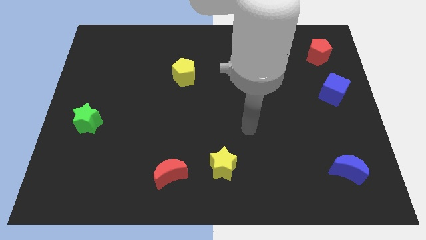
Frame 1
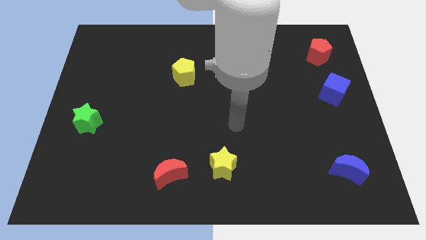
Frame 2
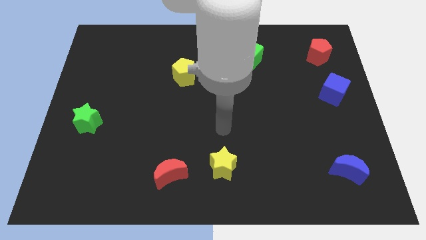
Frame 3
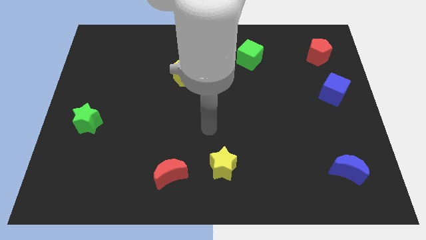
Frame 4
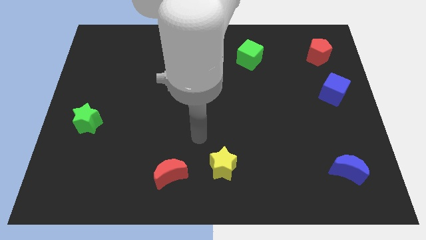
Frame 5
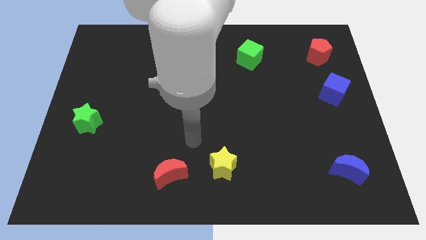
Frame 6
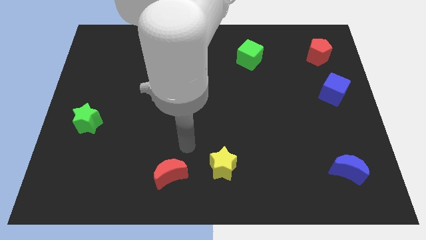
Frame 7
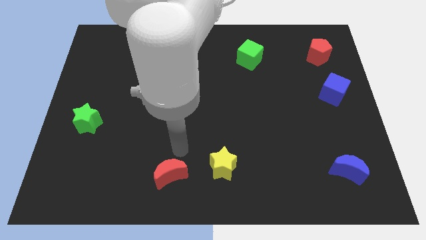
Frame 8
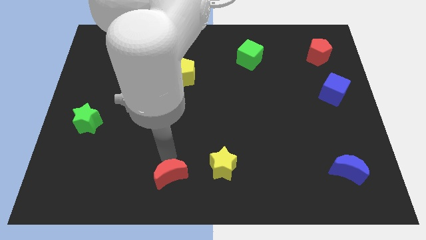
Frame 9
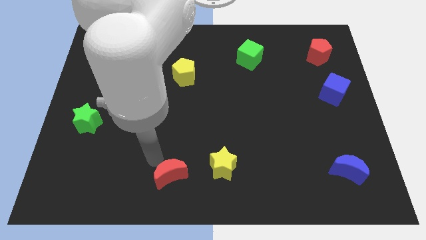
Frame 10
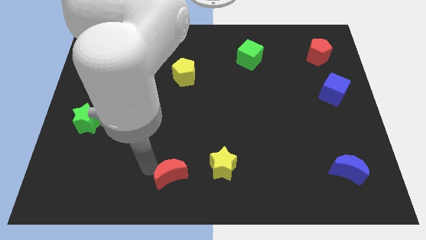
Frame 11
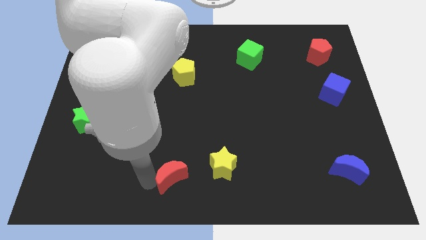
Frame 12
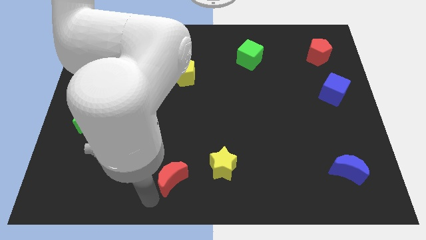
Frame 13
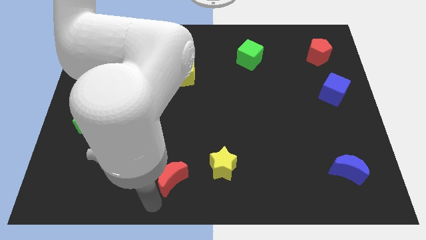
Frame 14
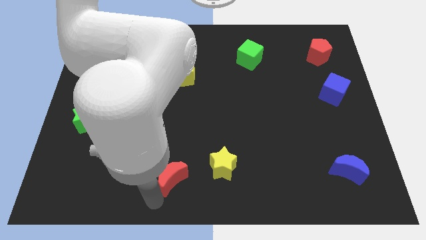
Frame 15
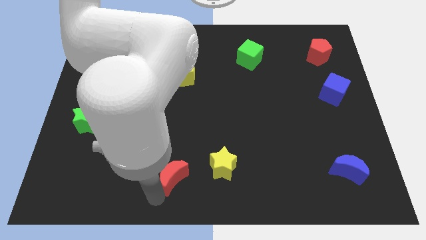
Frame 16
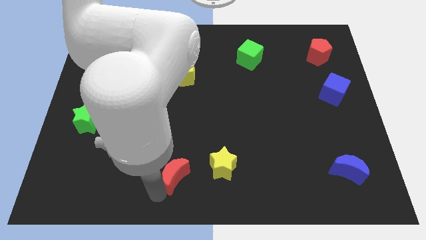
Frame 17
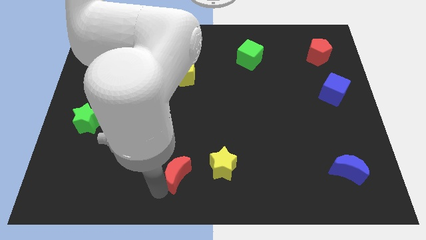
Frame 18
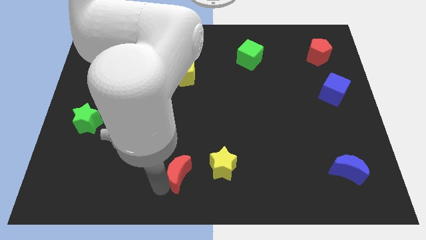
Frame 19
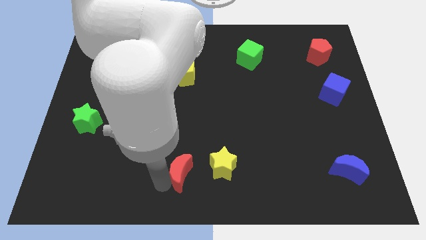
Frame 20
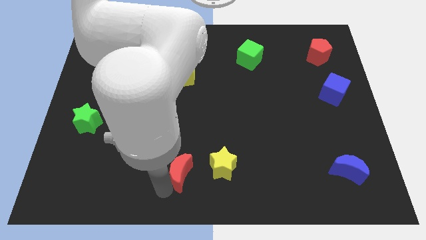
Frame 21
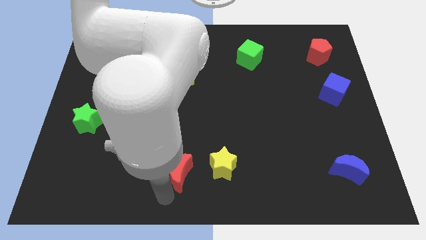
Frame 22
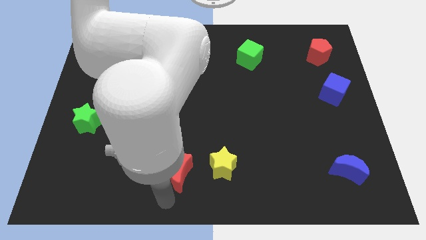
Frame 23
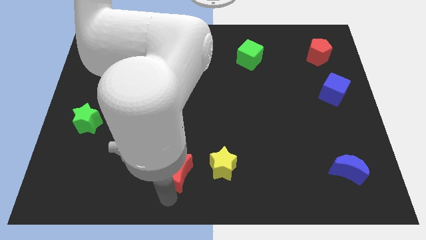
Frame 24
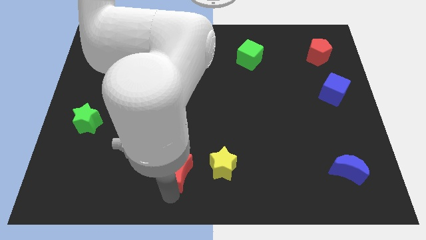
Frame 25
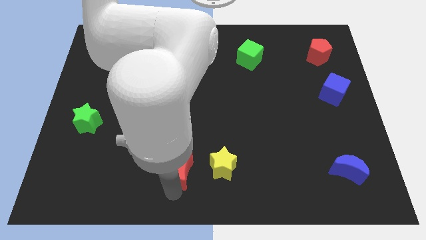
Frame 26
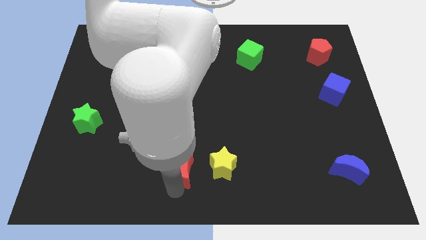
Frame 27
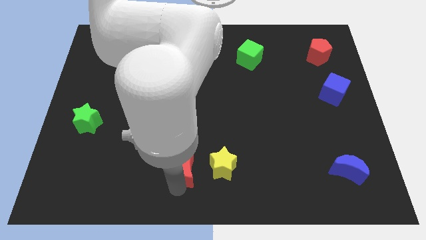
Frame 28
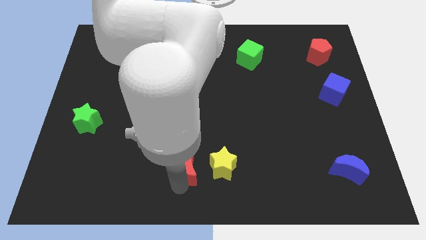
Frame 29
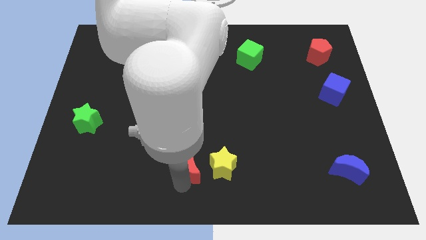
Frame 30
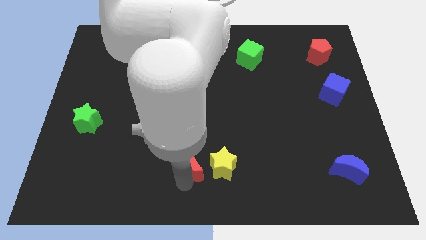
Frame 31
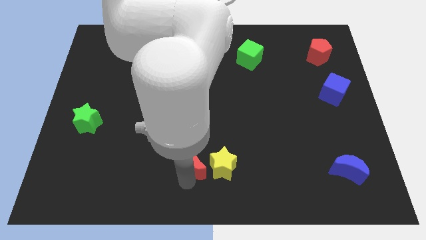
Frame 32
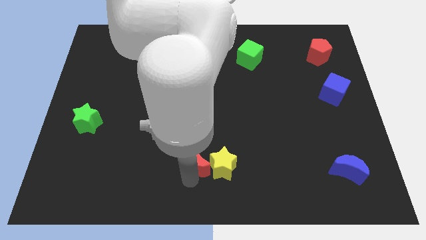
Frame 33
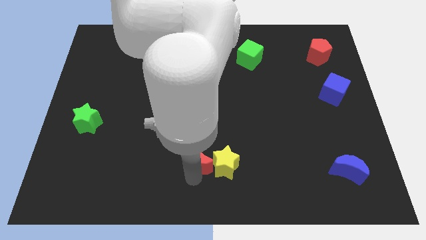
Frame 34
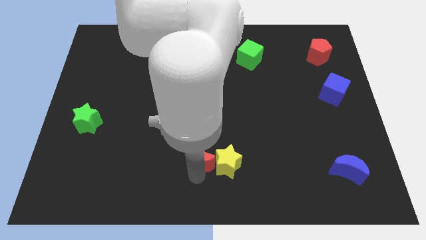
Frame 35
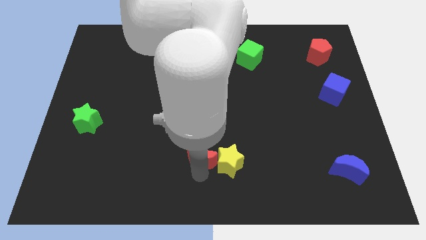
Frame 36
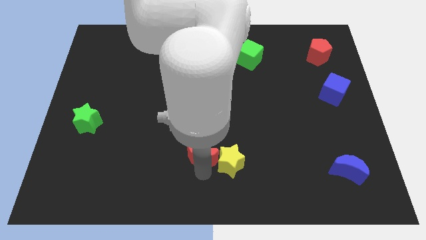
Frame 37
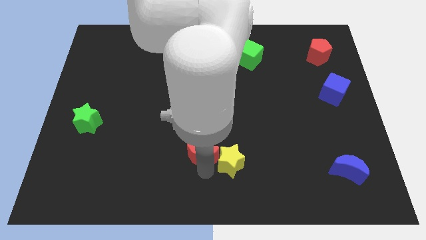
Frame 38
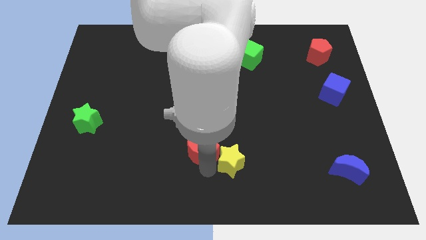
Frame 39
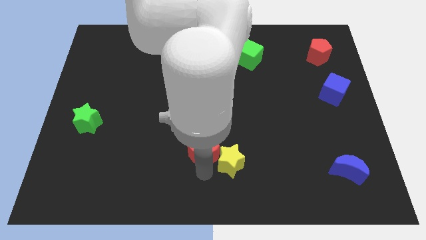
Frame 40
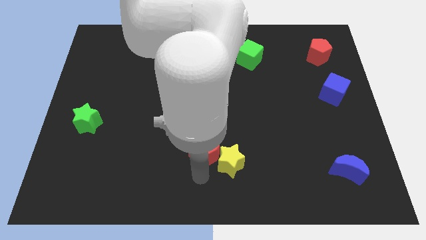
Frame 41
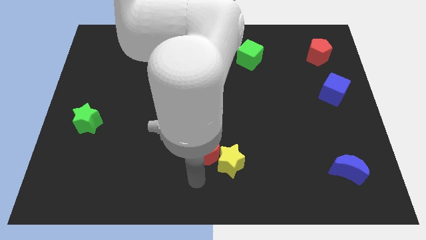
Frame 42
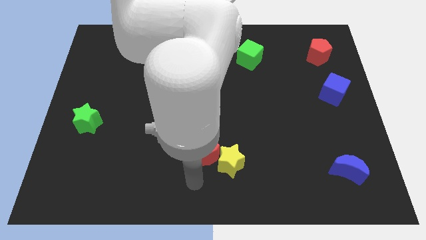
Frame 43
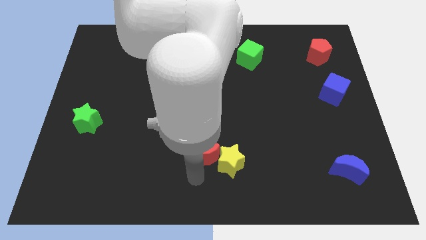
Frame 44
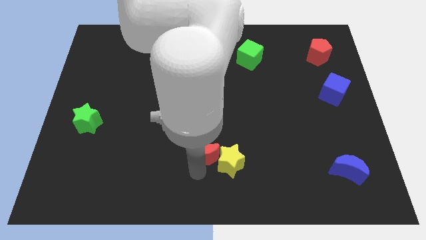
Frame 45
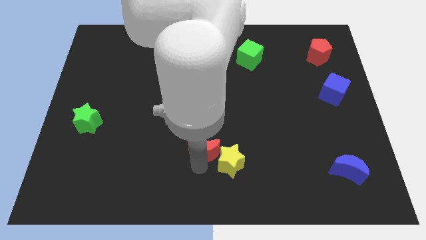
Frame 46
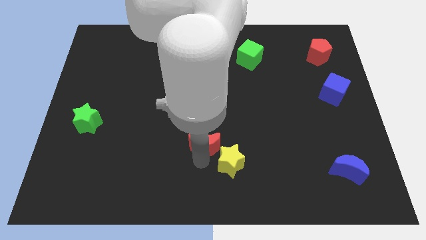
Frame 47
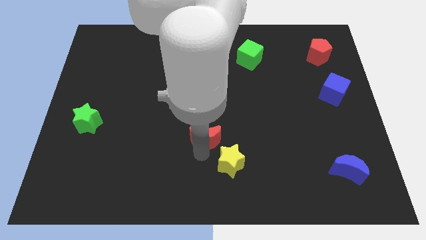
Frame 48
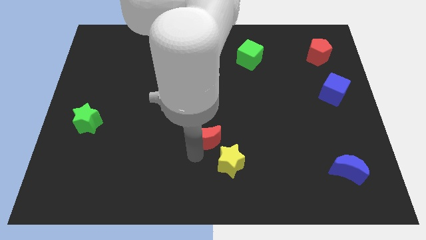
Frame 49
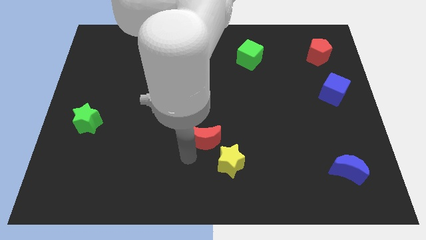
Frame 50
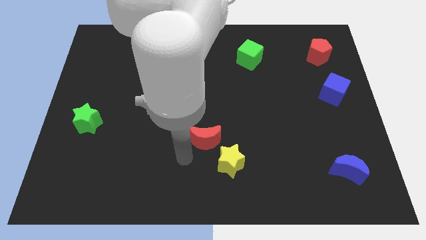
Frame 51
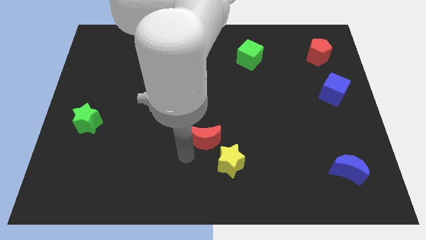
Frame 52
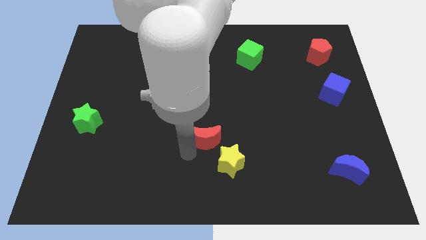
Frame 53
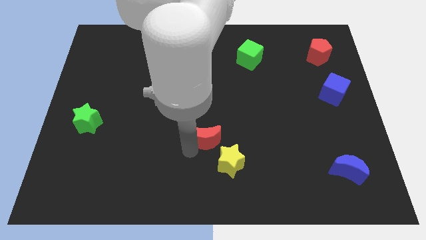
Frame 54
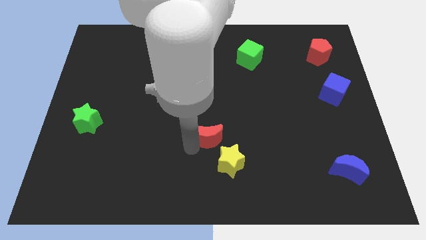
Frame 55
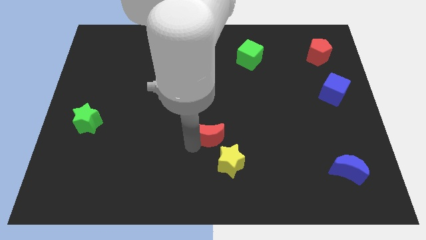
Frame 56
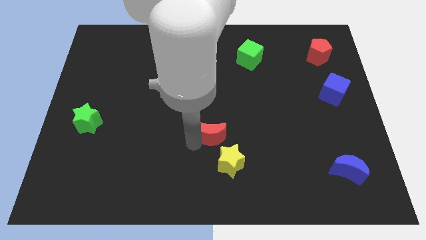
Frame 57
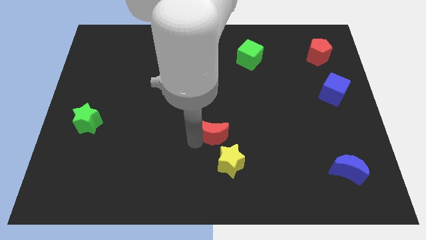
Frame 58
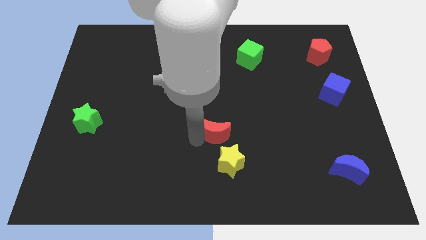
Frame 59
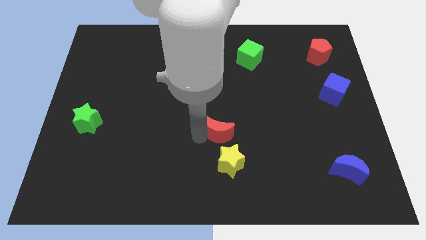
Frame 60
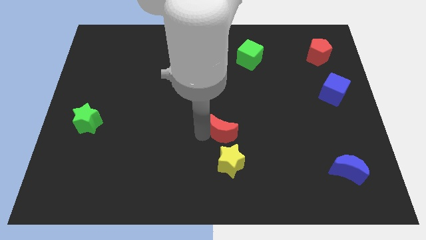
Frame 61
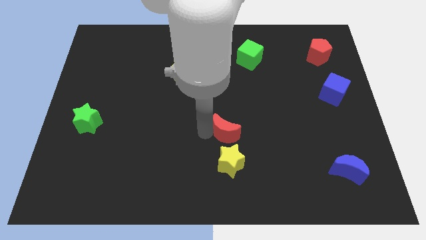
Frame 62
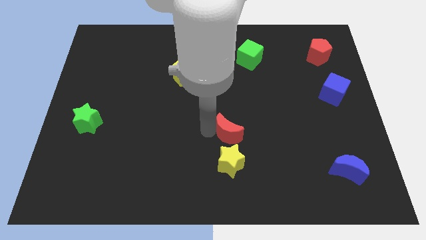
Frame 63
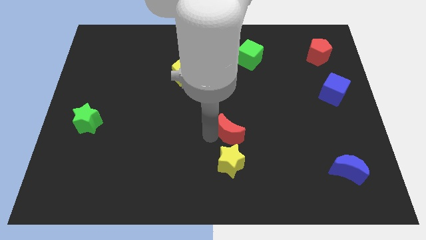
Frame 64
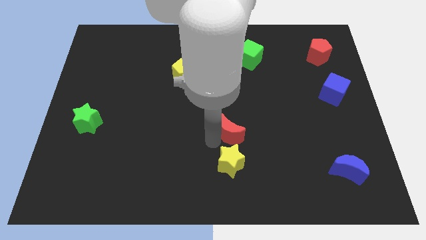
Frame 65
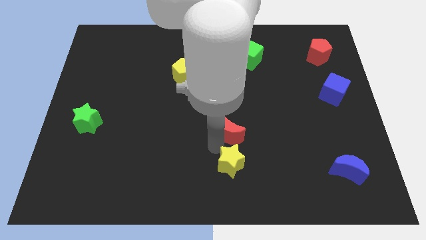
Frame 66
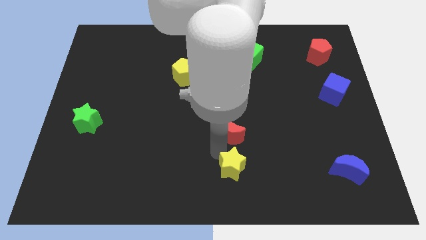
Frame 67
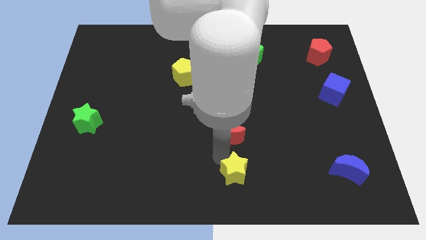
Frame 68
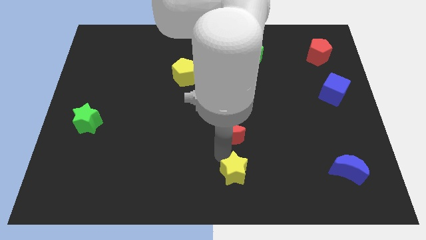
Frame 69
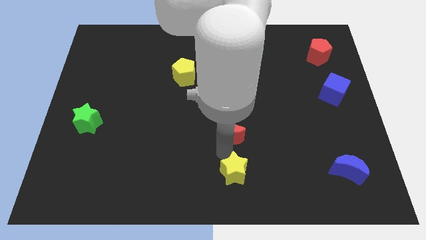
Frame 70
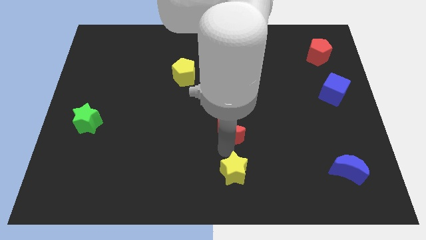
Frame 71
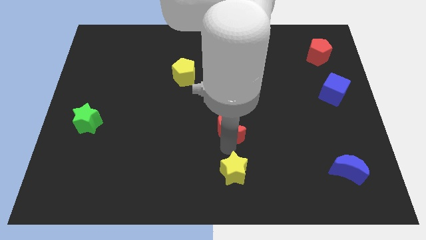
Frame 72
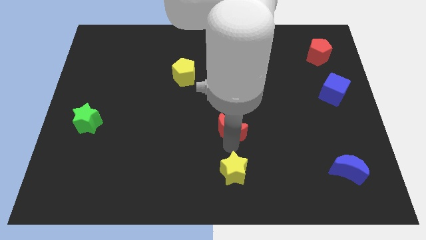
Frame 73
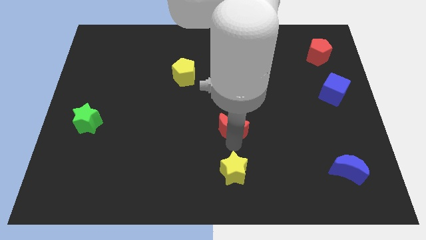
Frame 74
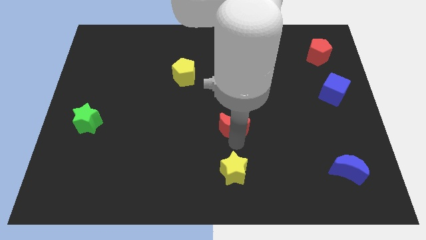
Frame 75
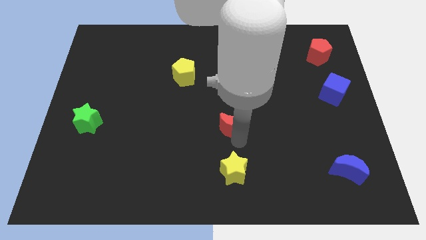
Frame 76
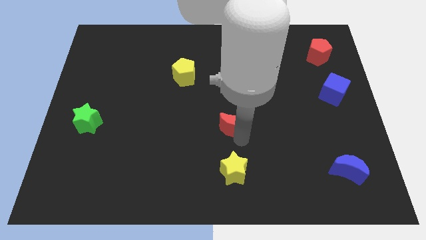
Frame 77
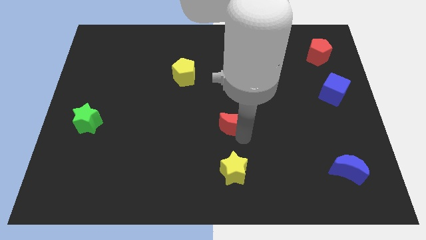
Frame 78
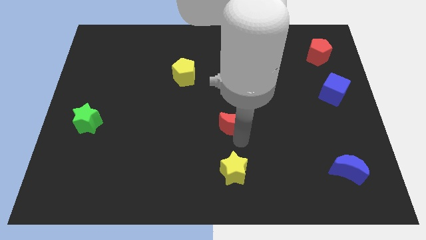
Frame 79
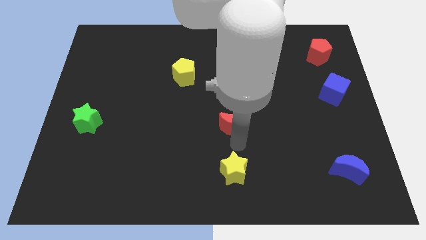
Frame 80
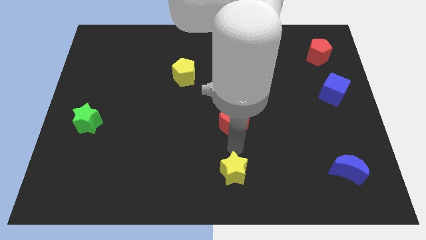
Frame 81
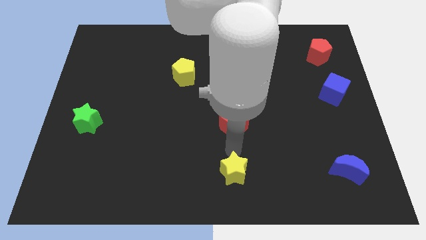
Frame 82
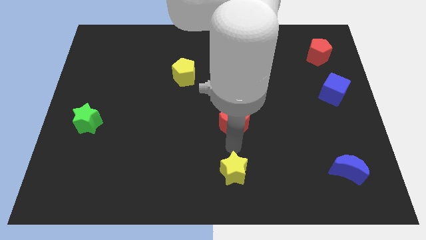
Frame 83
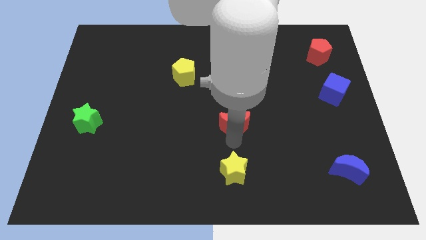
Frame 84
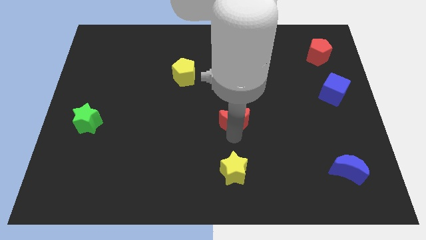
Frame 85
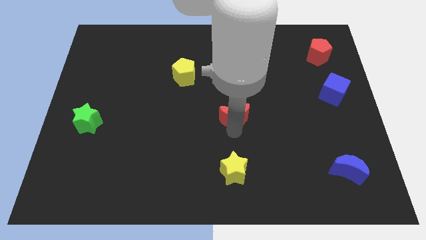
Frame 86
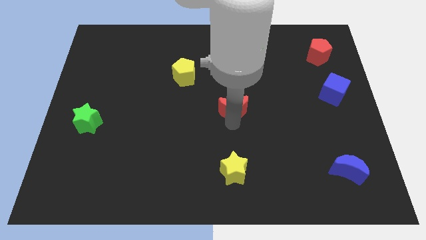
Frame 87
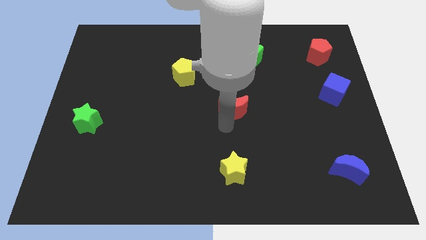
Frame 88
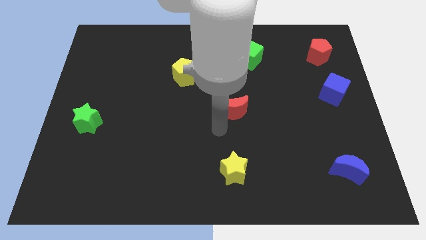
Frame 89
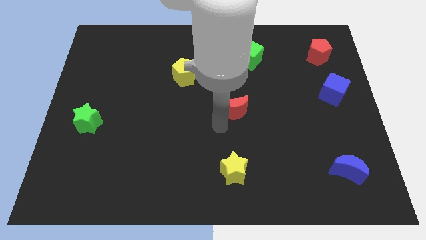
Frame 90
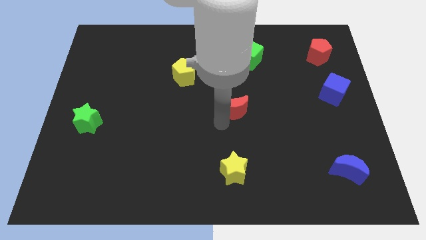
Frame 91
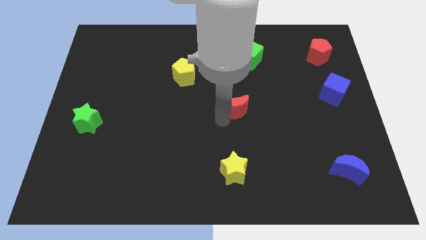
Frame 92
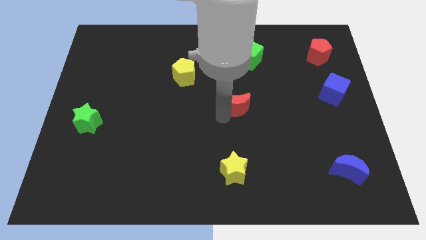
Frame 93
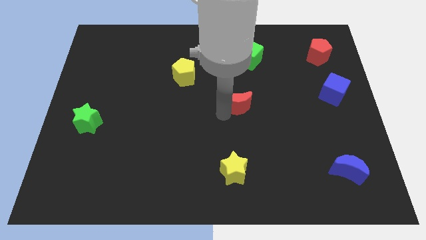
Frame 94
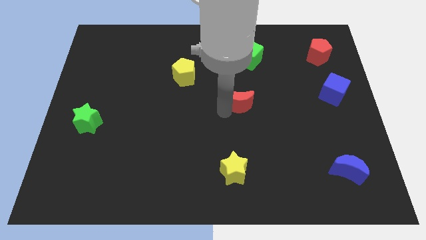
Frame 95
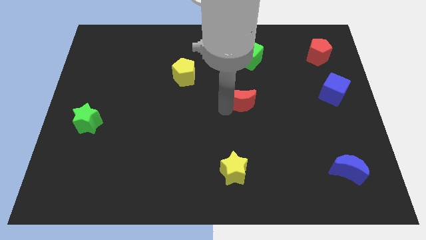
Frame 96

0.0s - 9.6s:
slide the red moon below the green cube
